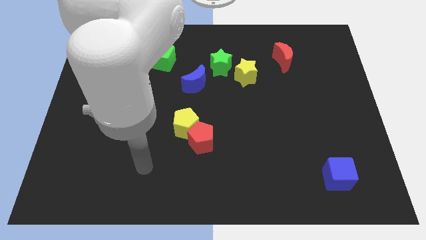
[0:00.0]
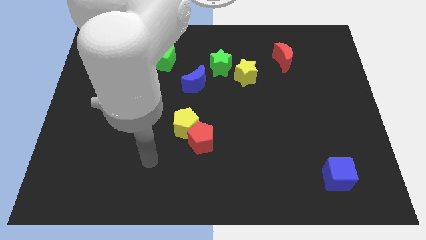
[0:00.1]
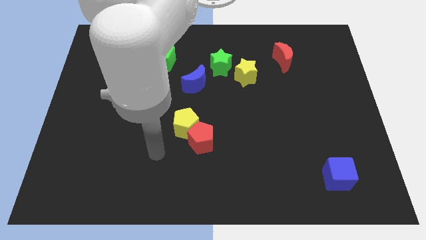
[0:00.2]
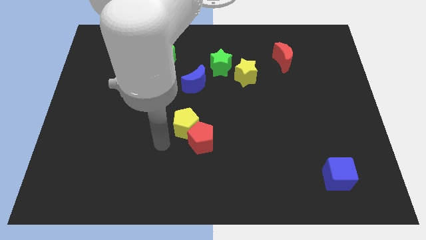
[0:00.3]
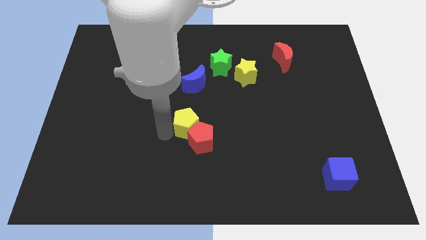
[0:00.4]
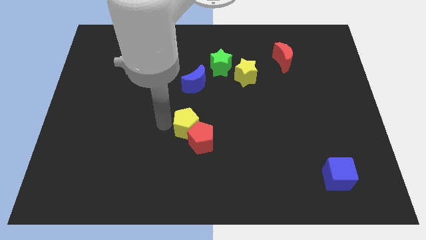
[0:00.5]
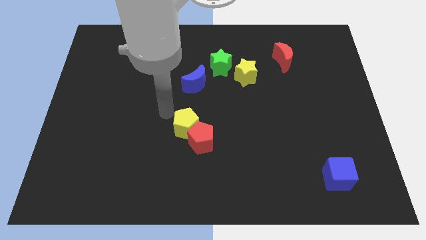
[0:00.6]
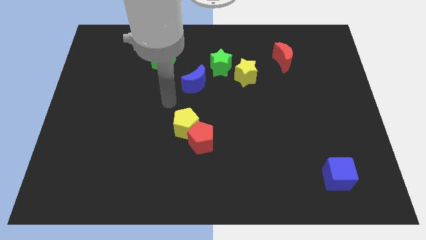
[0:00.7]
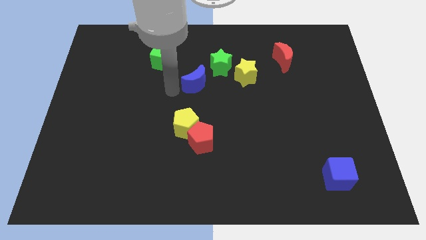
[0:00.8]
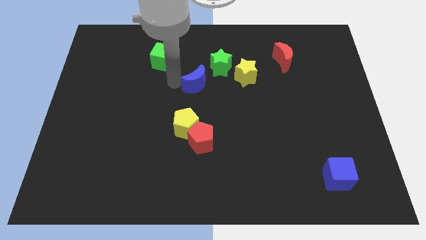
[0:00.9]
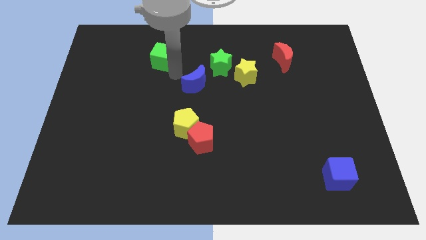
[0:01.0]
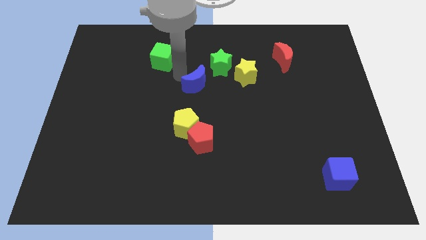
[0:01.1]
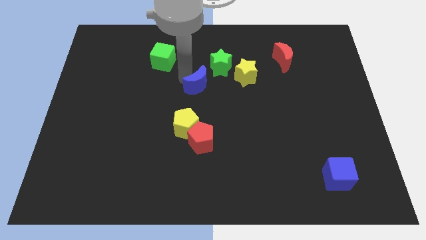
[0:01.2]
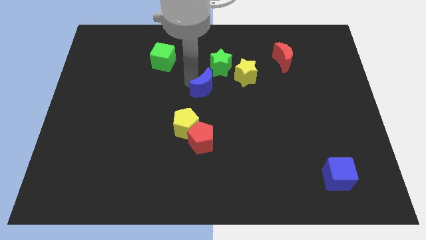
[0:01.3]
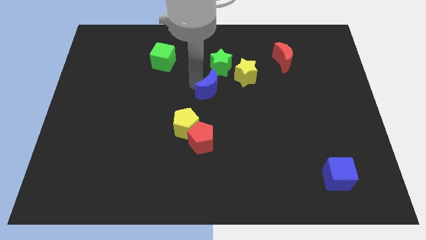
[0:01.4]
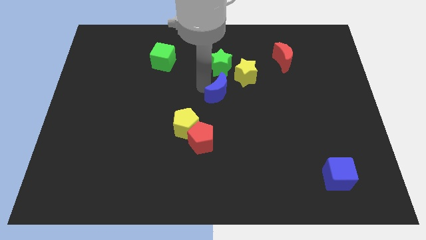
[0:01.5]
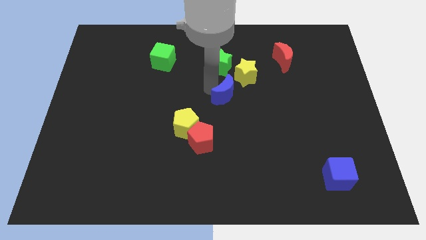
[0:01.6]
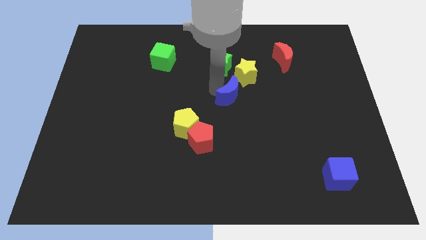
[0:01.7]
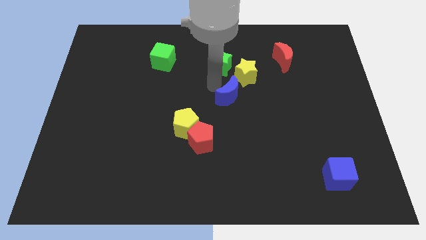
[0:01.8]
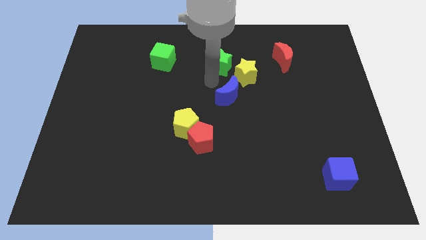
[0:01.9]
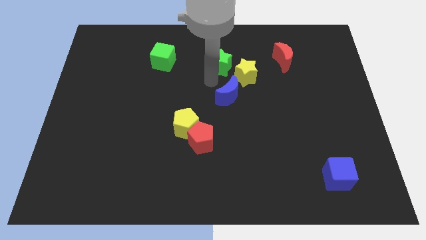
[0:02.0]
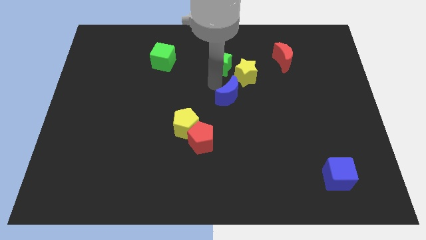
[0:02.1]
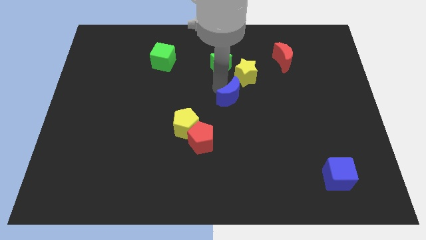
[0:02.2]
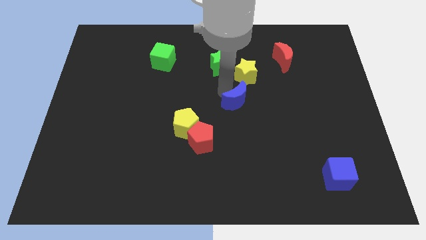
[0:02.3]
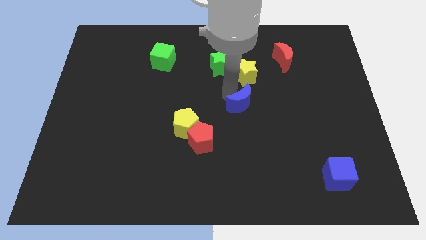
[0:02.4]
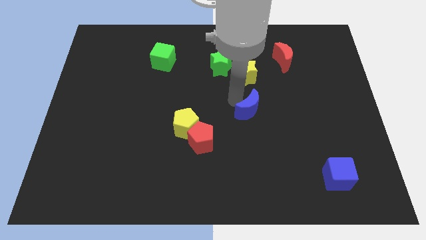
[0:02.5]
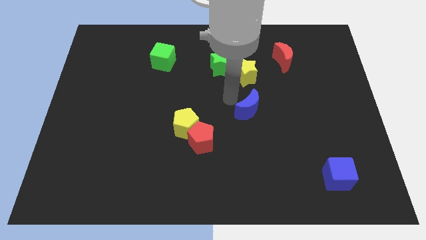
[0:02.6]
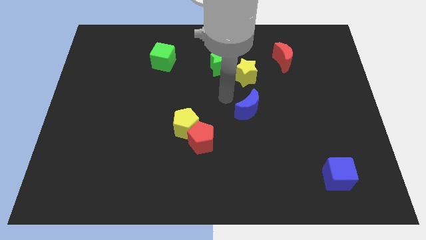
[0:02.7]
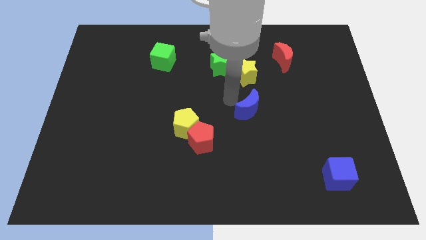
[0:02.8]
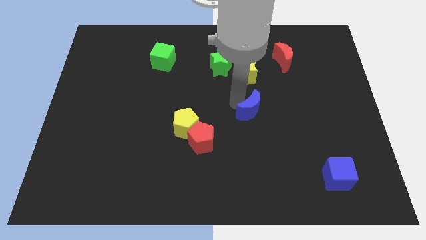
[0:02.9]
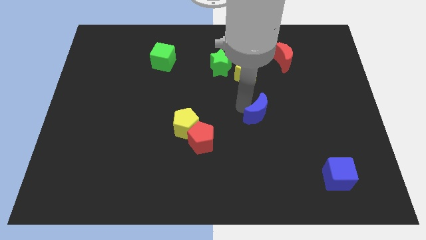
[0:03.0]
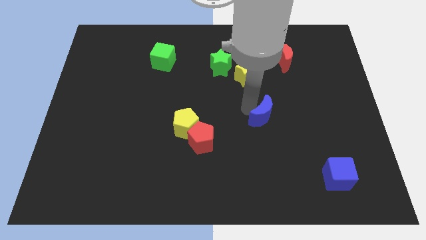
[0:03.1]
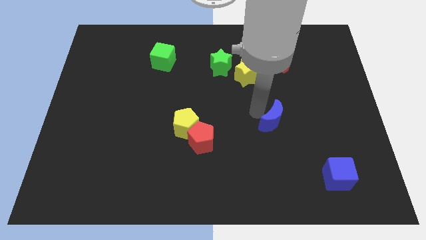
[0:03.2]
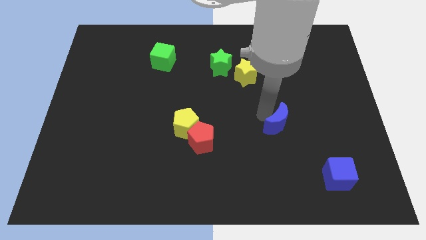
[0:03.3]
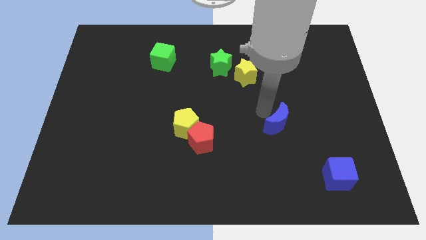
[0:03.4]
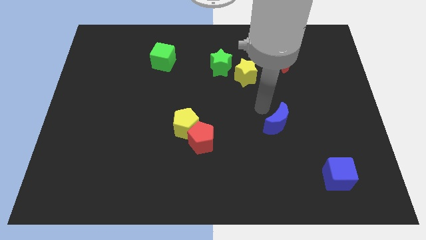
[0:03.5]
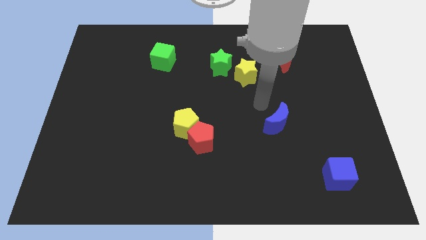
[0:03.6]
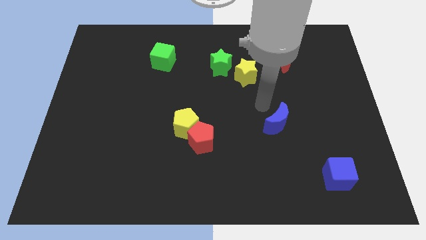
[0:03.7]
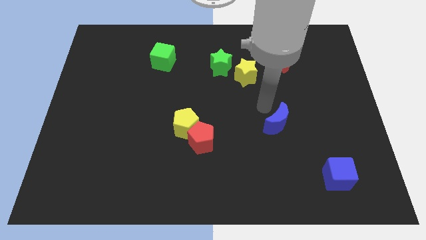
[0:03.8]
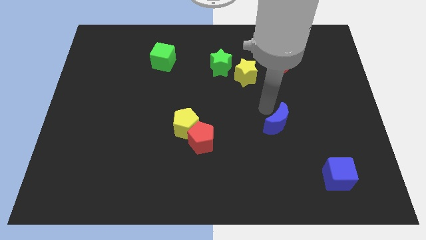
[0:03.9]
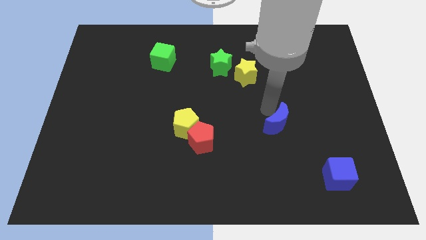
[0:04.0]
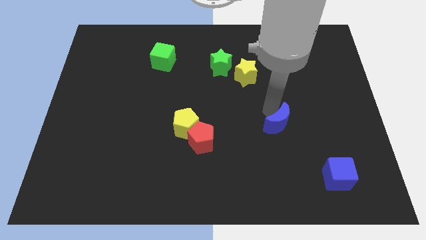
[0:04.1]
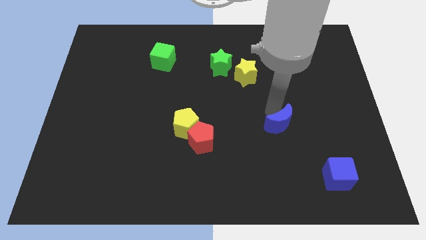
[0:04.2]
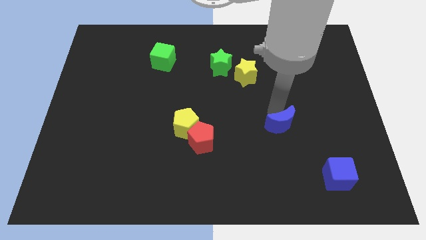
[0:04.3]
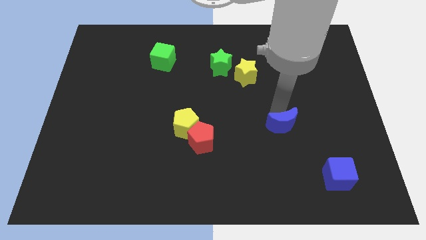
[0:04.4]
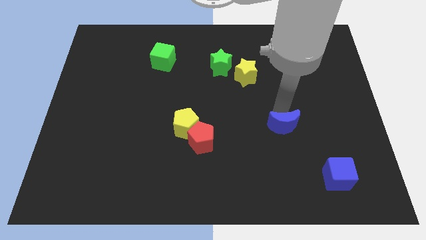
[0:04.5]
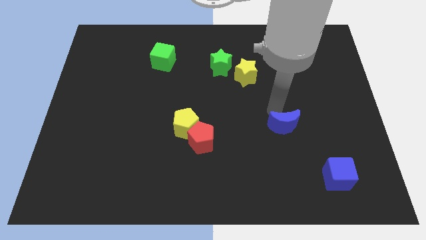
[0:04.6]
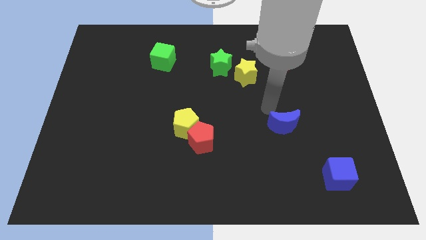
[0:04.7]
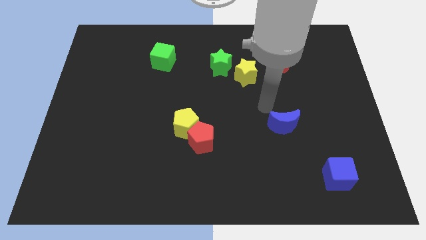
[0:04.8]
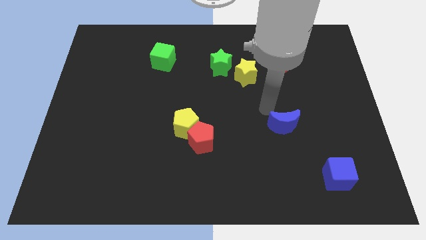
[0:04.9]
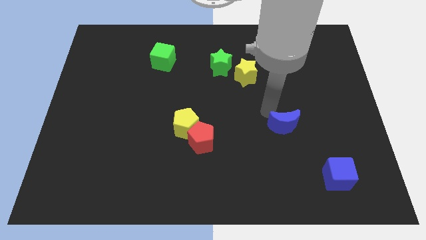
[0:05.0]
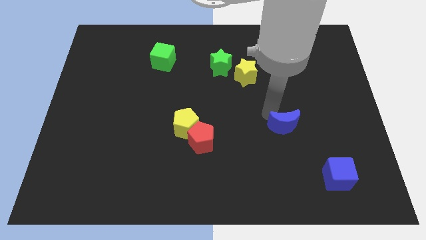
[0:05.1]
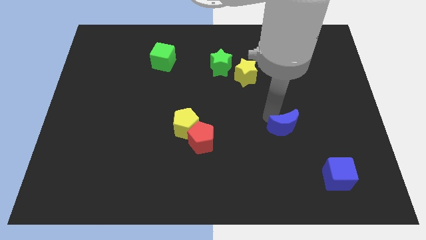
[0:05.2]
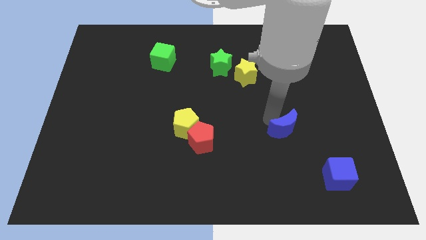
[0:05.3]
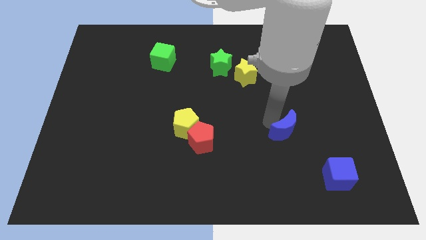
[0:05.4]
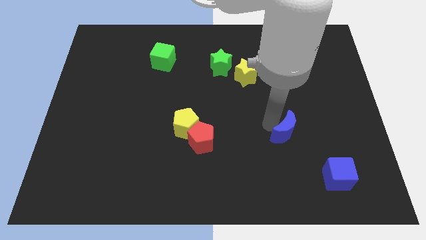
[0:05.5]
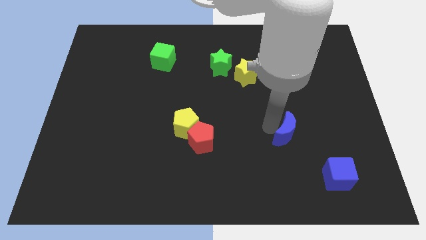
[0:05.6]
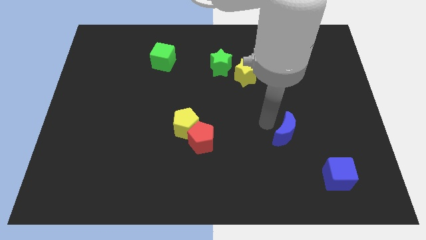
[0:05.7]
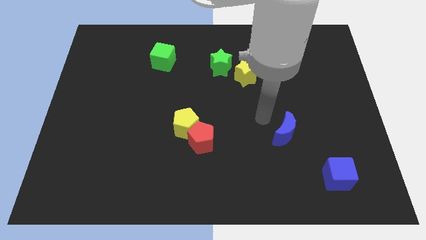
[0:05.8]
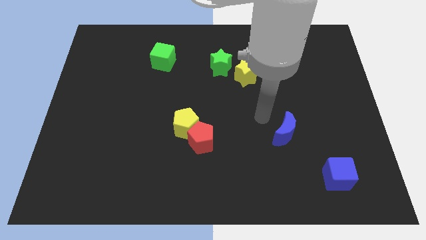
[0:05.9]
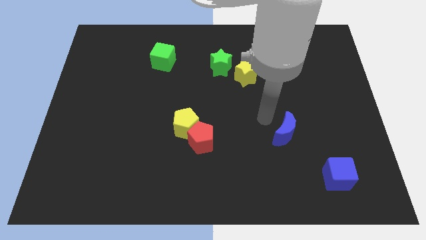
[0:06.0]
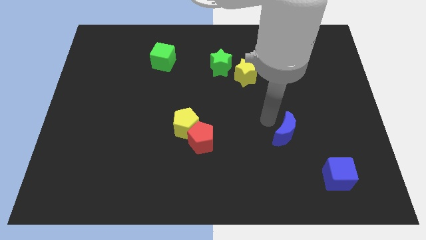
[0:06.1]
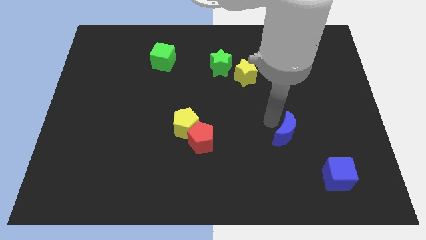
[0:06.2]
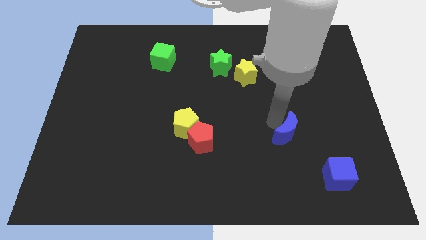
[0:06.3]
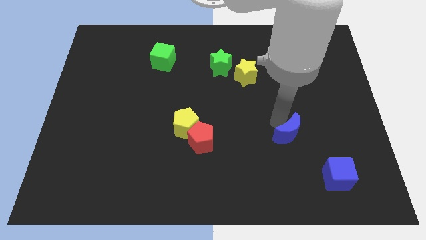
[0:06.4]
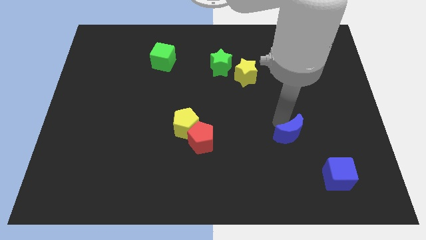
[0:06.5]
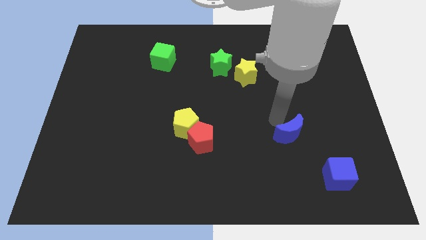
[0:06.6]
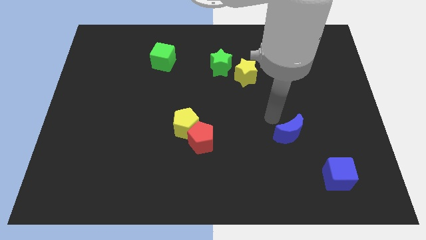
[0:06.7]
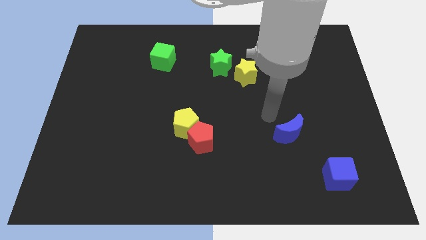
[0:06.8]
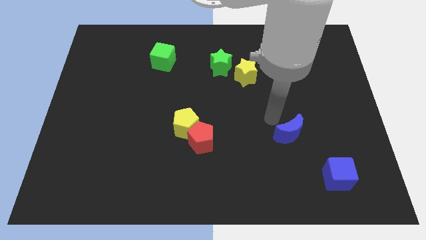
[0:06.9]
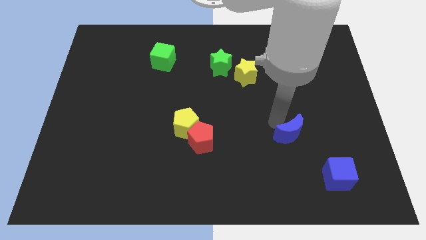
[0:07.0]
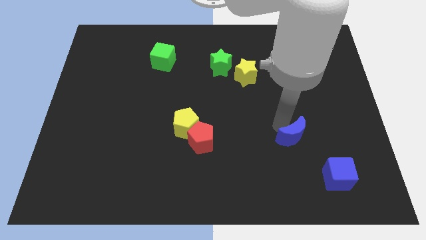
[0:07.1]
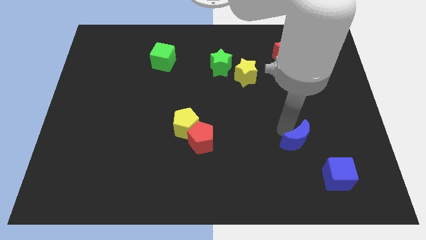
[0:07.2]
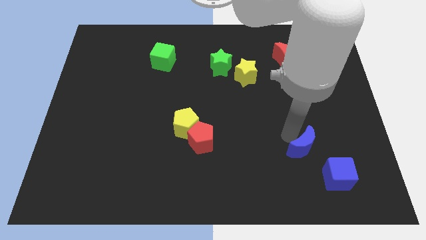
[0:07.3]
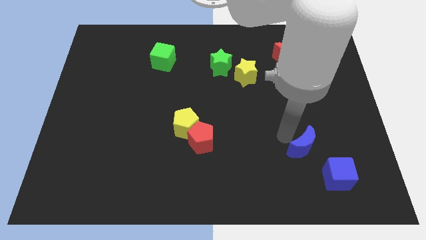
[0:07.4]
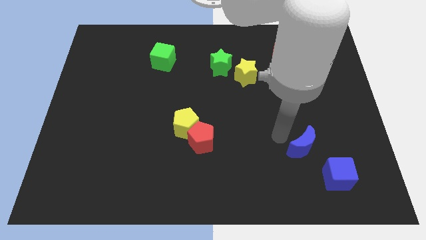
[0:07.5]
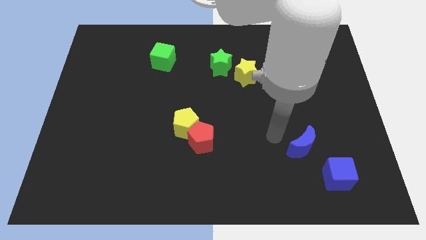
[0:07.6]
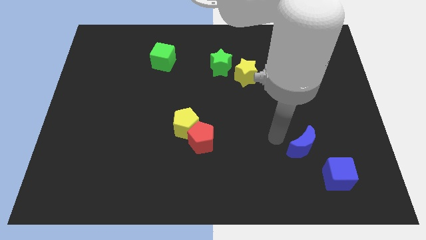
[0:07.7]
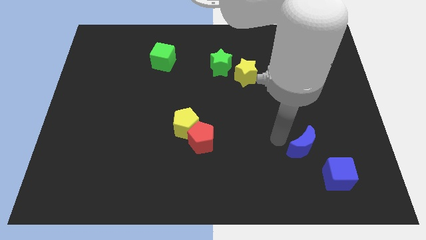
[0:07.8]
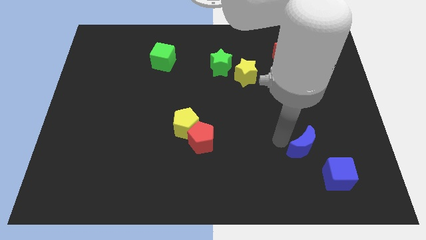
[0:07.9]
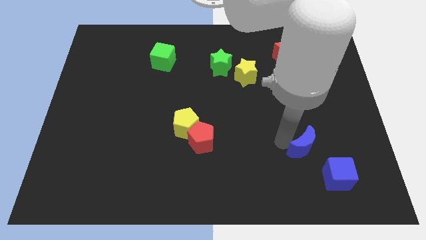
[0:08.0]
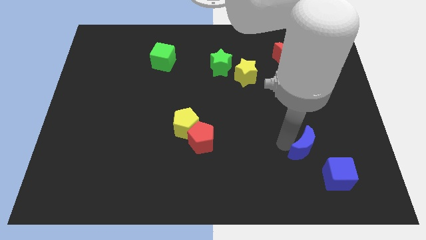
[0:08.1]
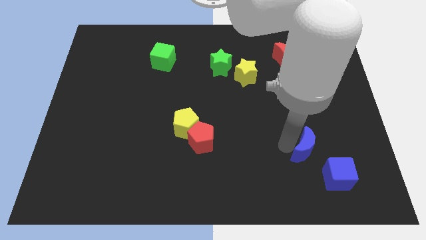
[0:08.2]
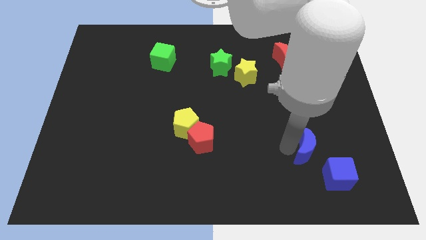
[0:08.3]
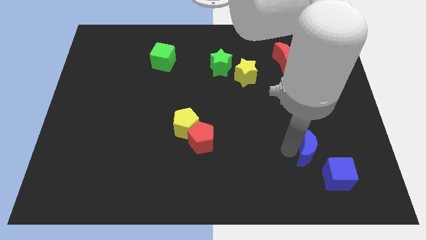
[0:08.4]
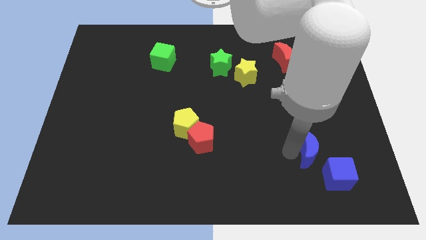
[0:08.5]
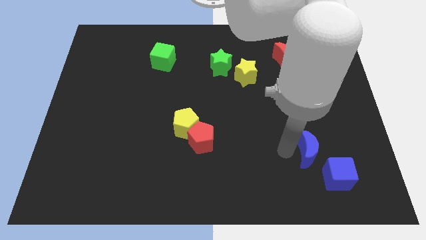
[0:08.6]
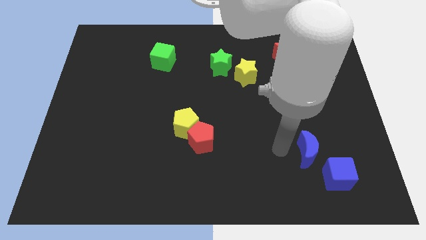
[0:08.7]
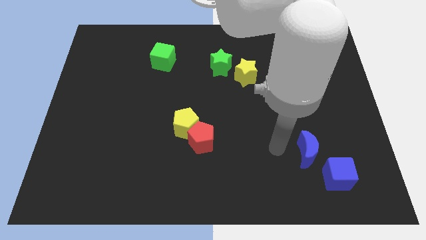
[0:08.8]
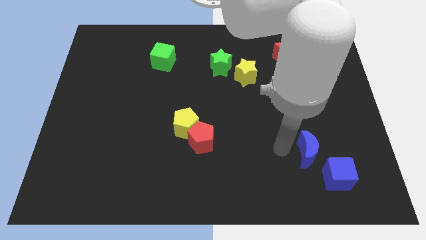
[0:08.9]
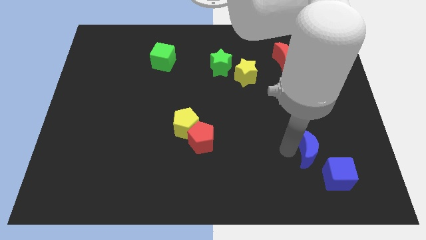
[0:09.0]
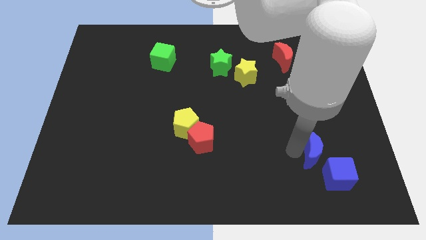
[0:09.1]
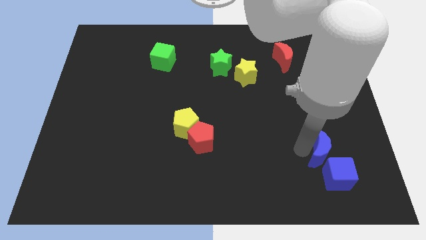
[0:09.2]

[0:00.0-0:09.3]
put the blue moon close to the blue cube
